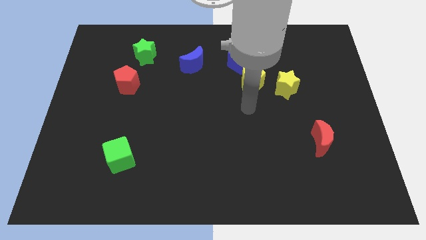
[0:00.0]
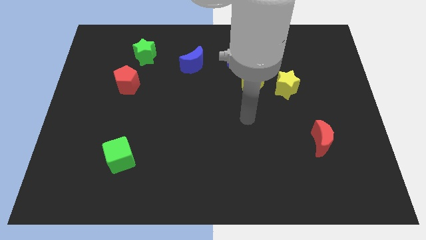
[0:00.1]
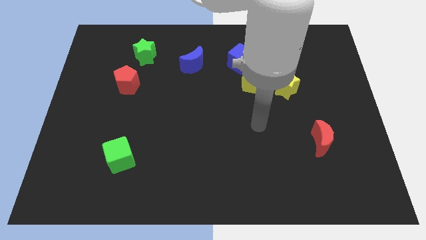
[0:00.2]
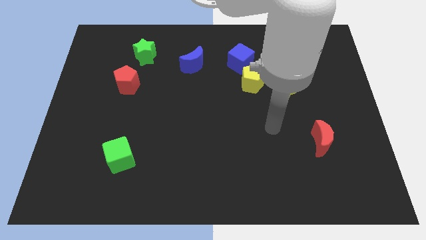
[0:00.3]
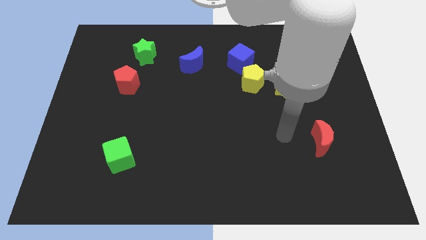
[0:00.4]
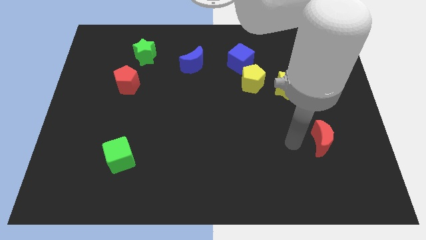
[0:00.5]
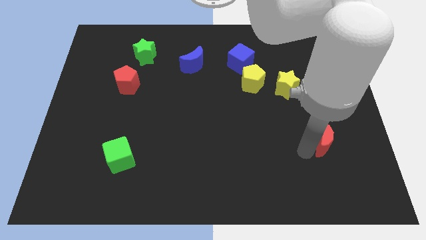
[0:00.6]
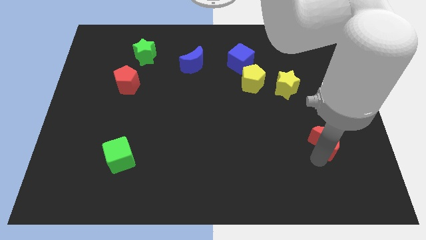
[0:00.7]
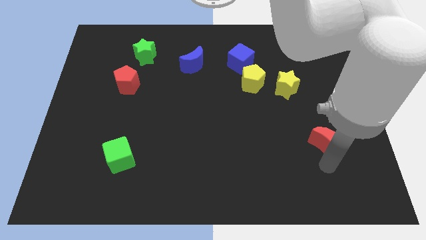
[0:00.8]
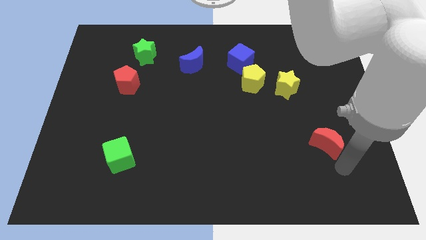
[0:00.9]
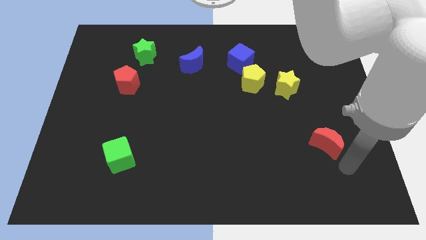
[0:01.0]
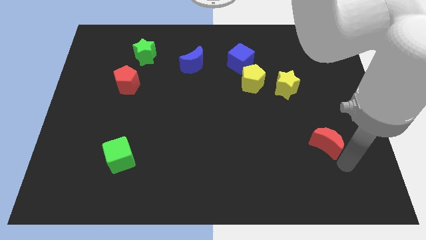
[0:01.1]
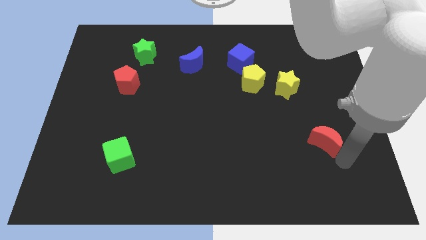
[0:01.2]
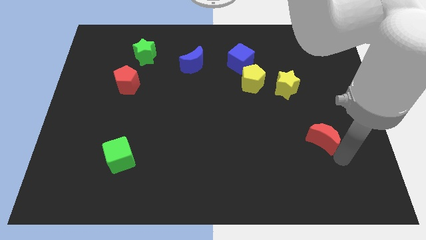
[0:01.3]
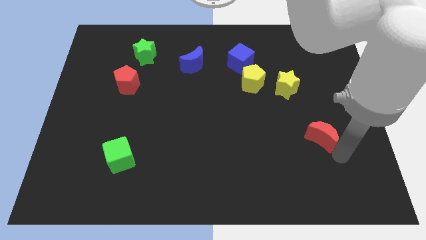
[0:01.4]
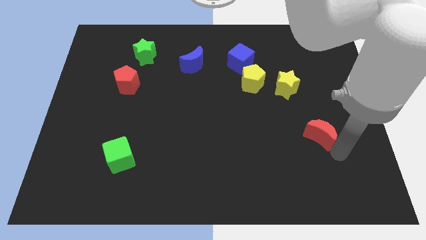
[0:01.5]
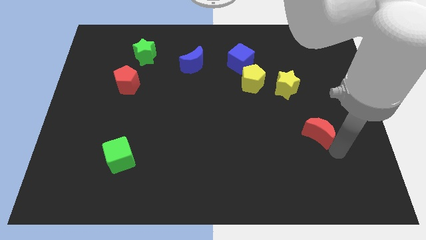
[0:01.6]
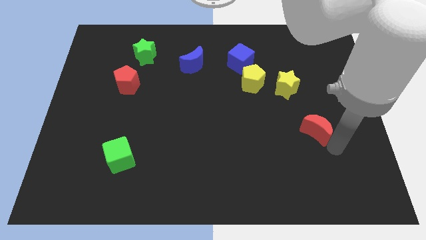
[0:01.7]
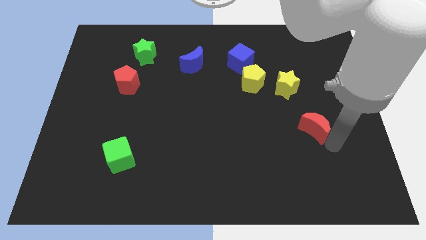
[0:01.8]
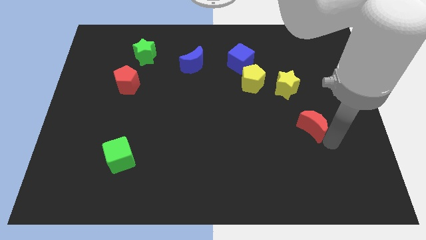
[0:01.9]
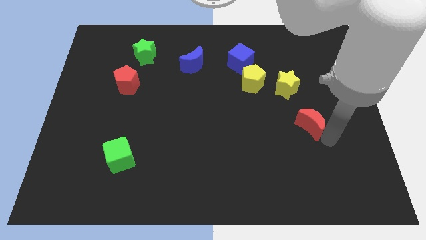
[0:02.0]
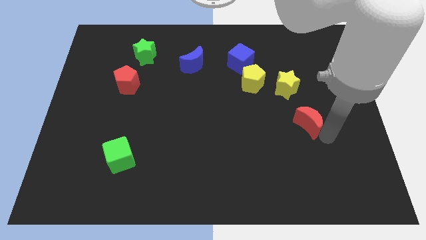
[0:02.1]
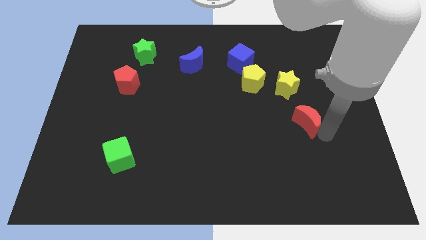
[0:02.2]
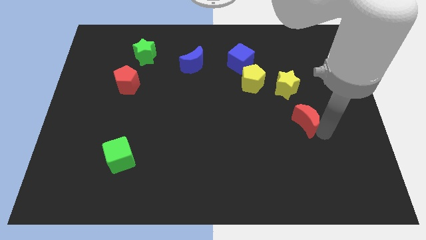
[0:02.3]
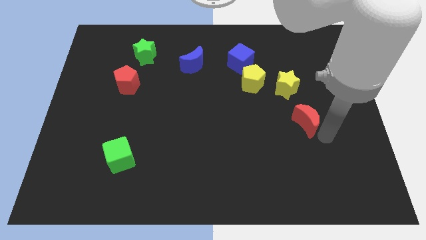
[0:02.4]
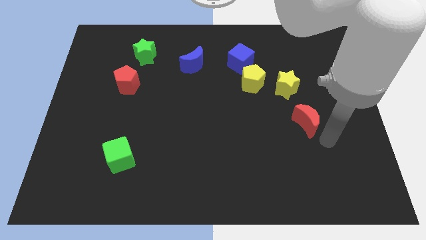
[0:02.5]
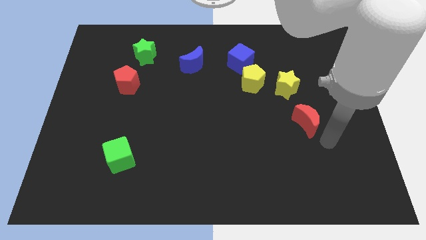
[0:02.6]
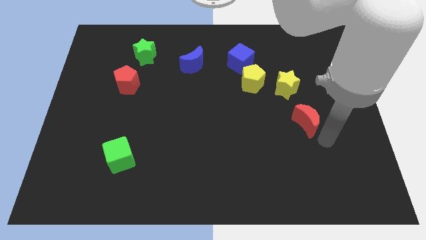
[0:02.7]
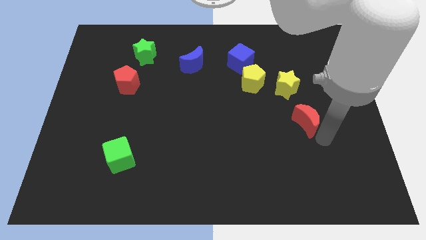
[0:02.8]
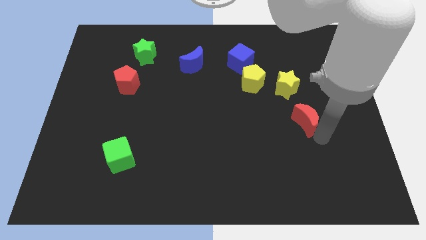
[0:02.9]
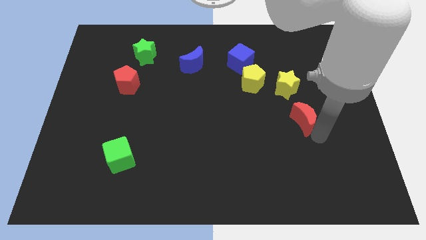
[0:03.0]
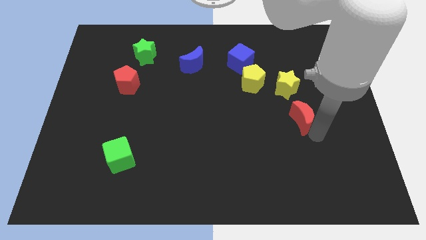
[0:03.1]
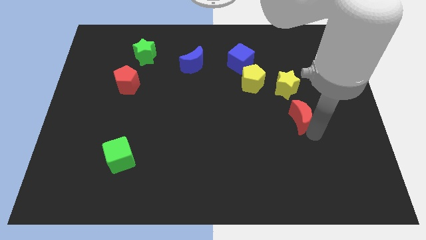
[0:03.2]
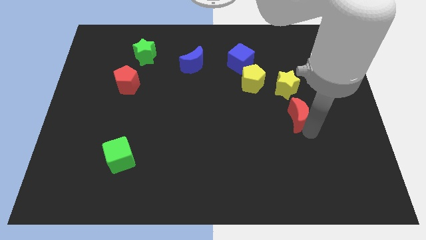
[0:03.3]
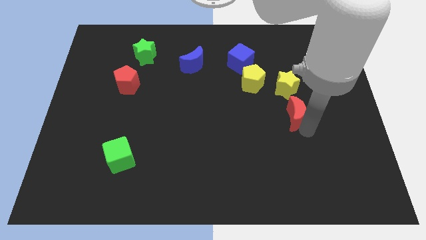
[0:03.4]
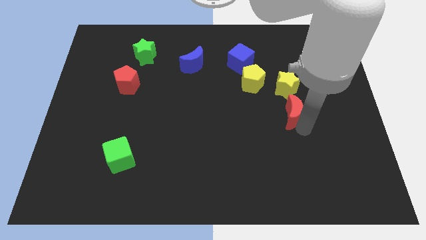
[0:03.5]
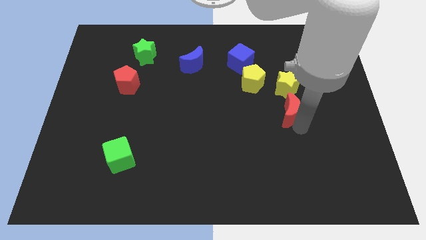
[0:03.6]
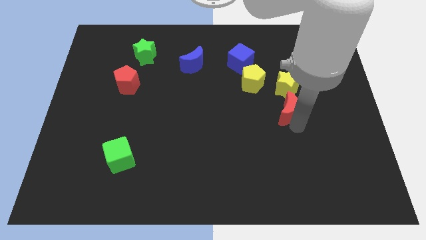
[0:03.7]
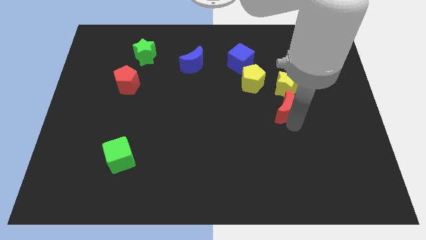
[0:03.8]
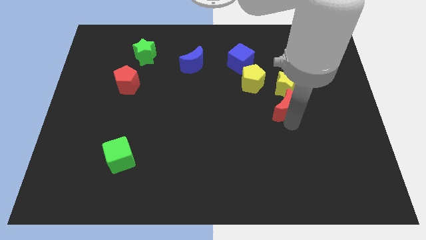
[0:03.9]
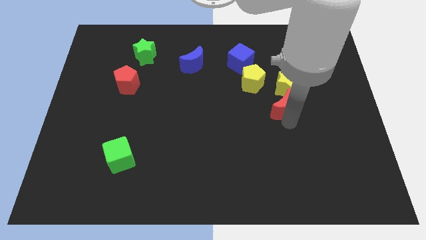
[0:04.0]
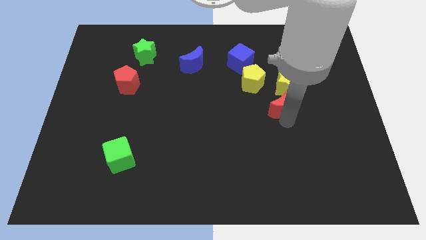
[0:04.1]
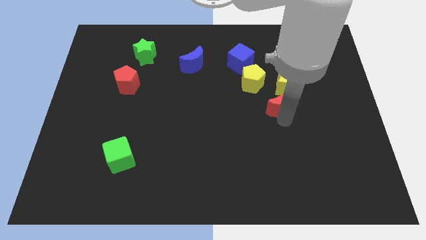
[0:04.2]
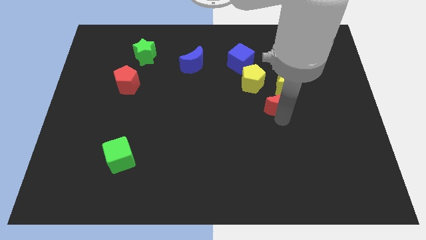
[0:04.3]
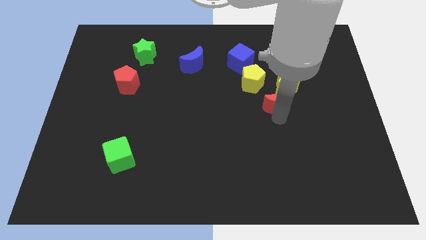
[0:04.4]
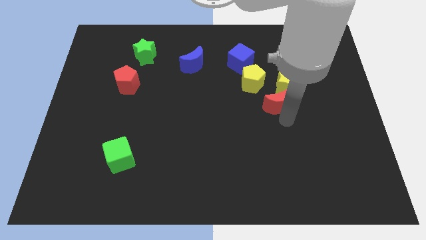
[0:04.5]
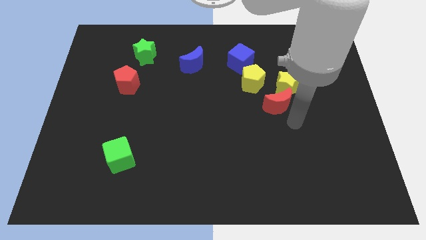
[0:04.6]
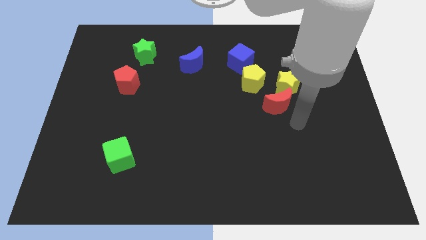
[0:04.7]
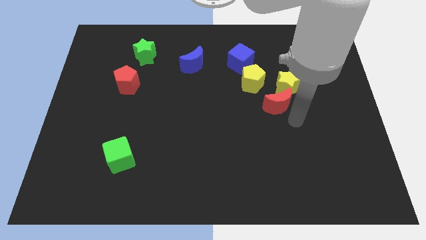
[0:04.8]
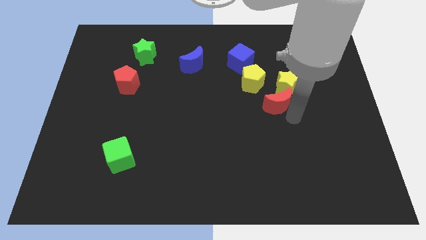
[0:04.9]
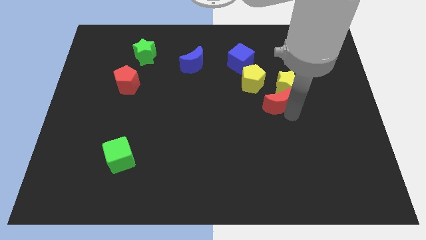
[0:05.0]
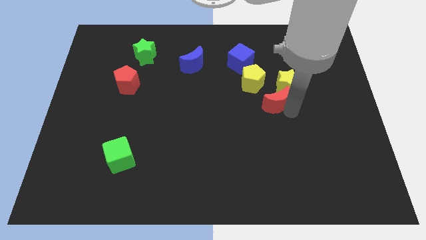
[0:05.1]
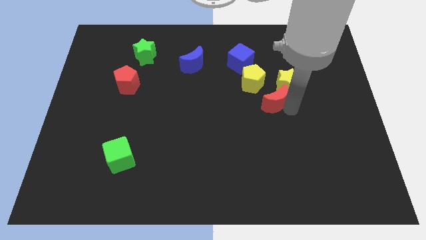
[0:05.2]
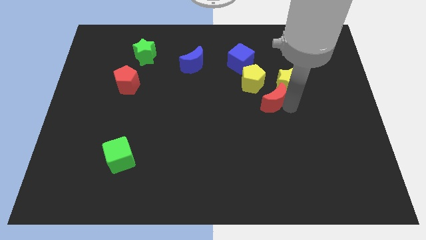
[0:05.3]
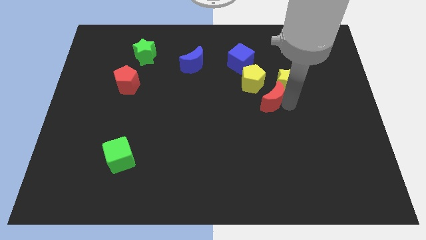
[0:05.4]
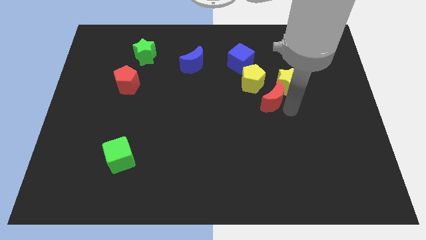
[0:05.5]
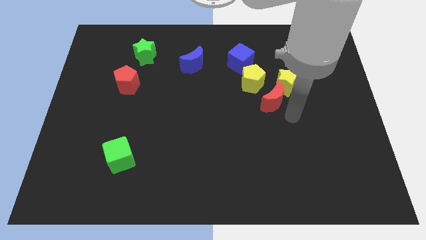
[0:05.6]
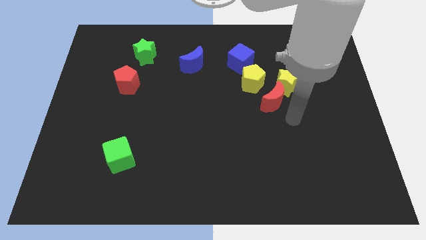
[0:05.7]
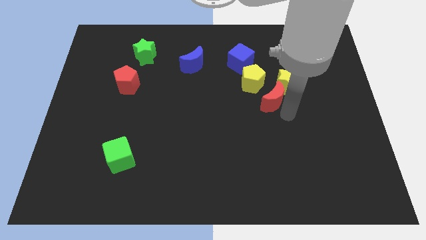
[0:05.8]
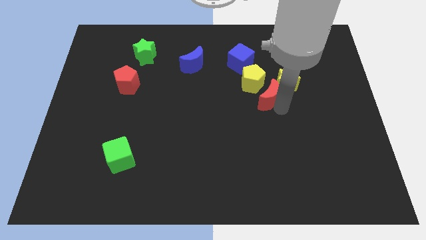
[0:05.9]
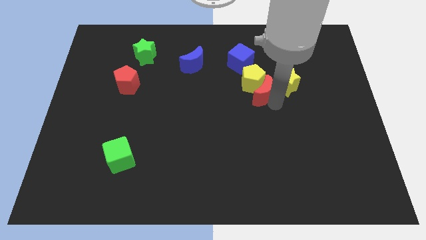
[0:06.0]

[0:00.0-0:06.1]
put the red moon towards the yellow pentagon

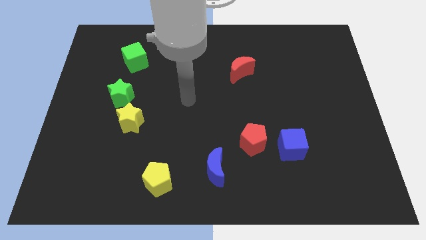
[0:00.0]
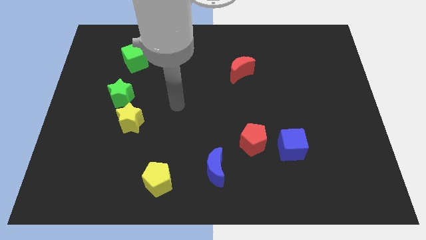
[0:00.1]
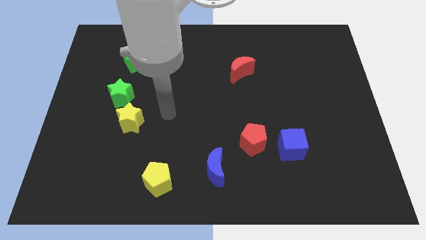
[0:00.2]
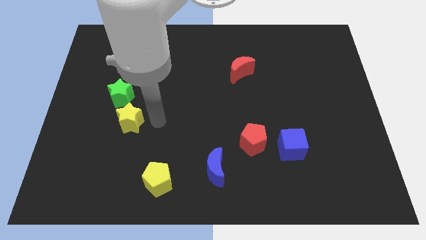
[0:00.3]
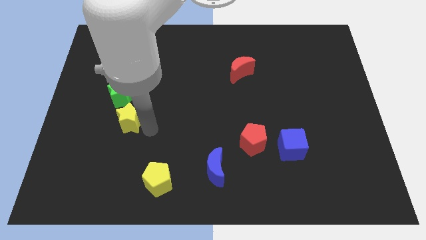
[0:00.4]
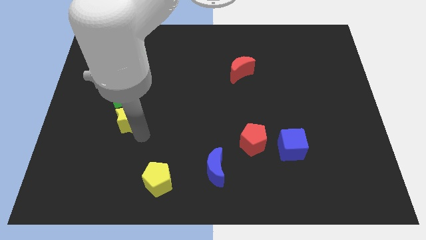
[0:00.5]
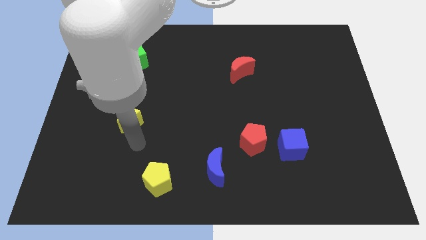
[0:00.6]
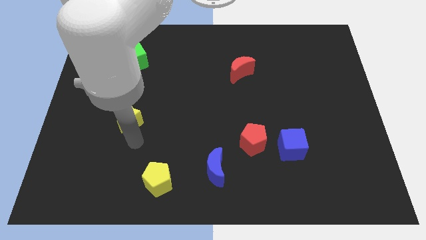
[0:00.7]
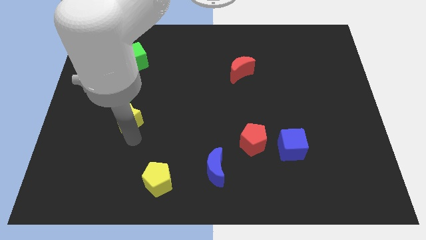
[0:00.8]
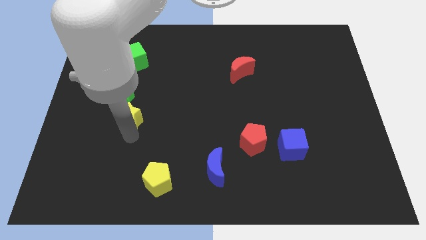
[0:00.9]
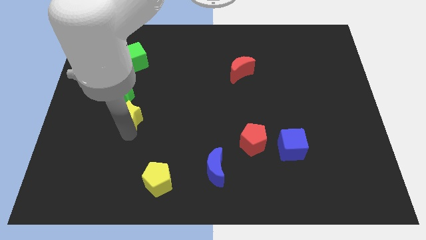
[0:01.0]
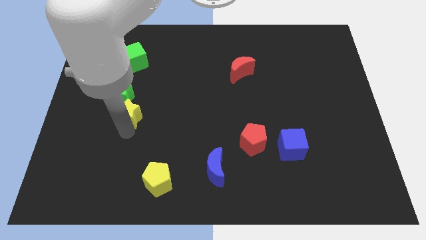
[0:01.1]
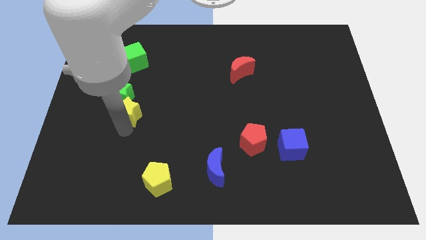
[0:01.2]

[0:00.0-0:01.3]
slide the yellow star next to the green star
